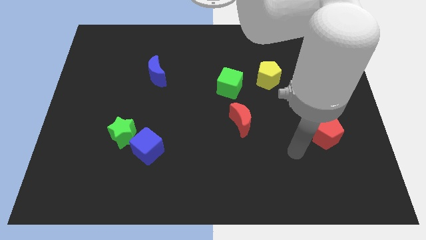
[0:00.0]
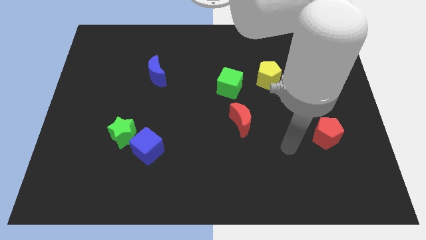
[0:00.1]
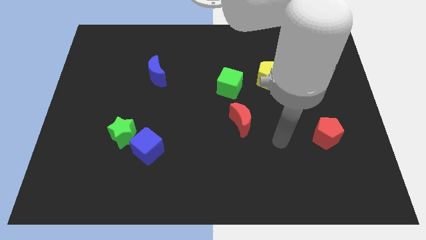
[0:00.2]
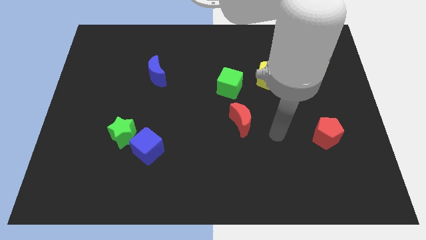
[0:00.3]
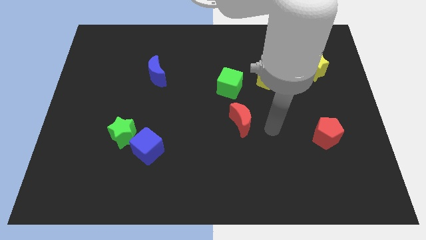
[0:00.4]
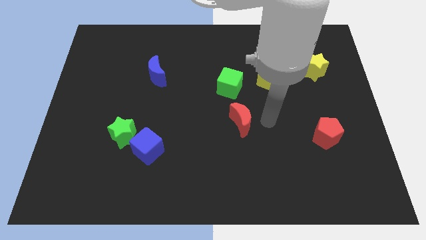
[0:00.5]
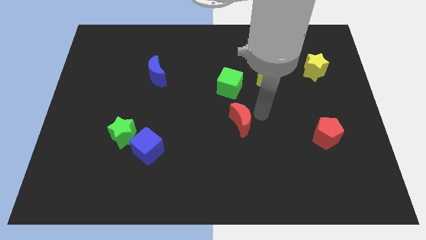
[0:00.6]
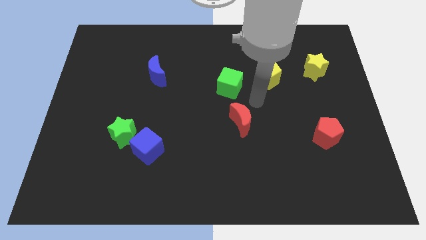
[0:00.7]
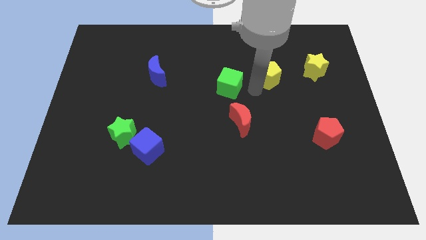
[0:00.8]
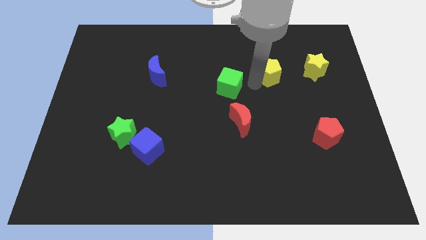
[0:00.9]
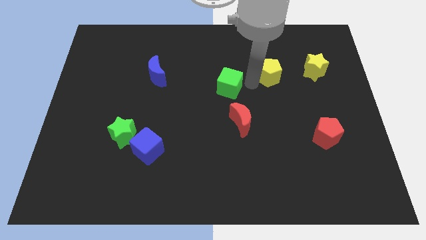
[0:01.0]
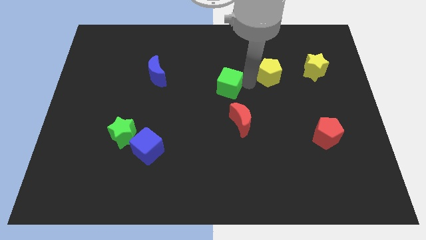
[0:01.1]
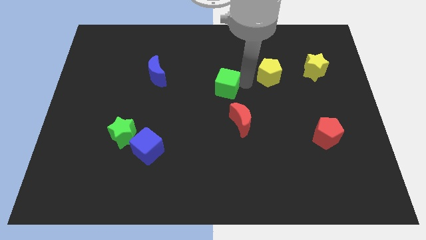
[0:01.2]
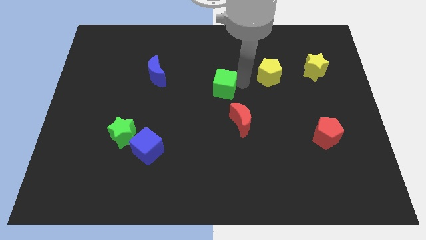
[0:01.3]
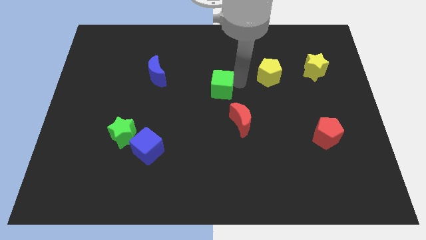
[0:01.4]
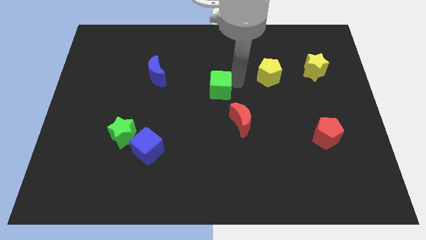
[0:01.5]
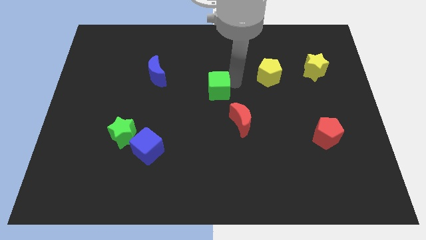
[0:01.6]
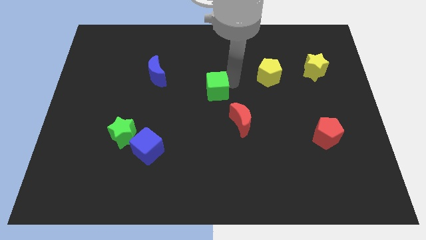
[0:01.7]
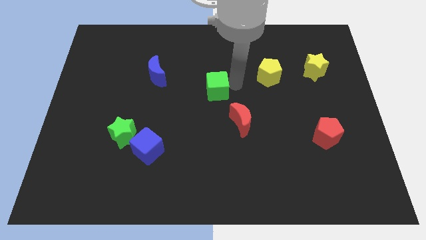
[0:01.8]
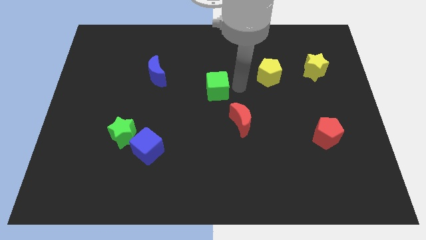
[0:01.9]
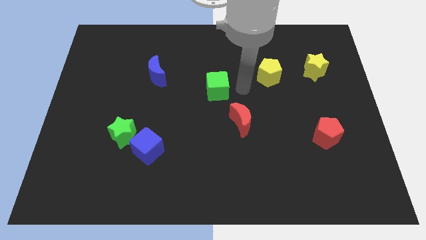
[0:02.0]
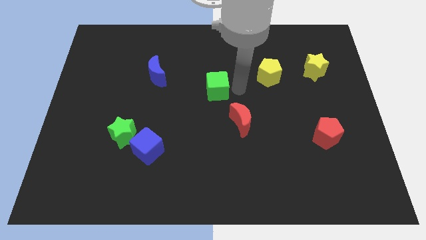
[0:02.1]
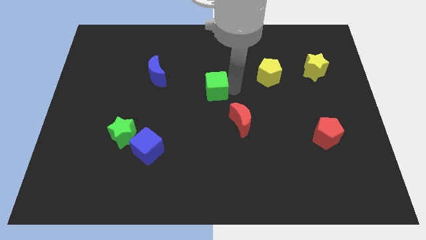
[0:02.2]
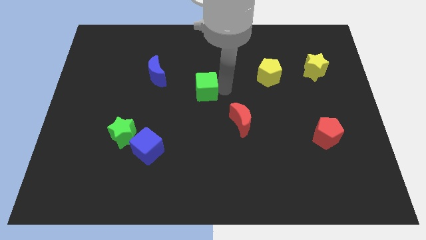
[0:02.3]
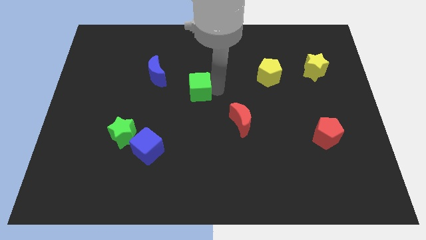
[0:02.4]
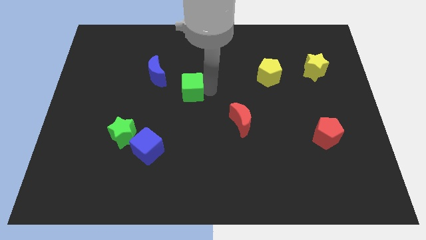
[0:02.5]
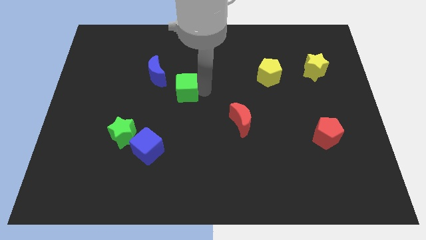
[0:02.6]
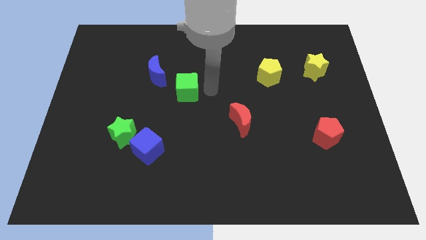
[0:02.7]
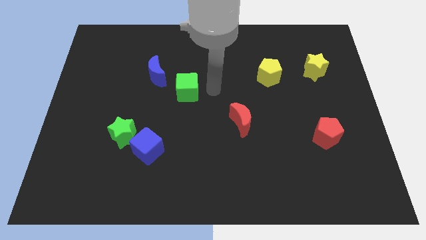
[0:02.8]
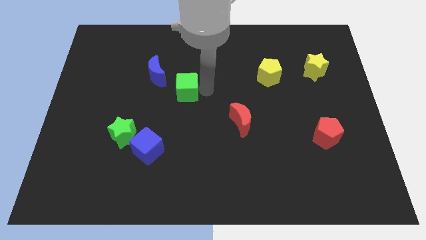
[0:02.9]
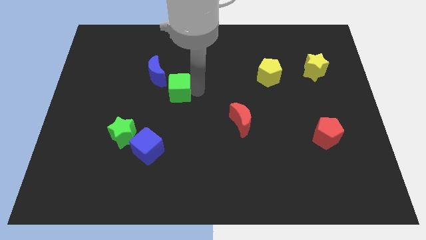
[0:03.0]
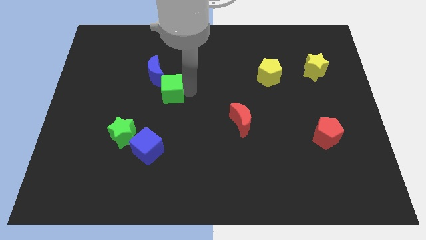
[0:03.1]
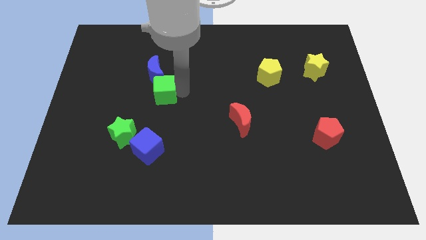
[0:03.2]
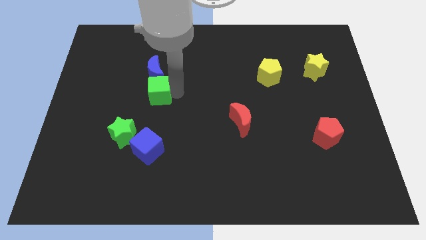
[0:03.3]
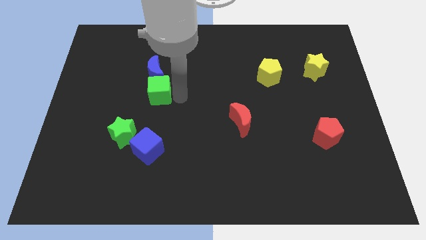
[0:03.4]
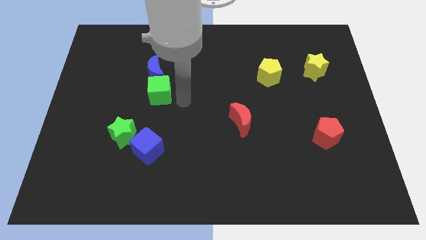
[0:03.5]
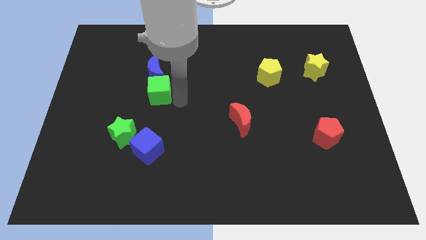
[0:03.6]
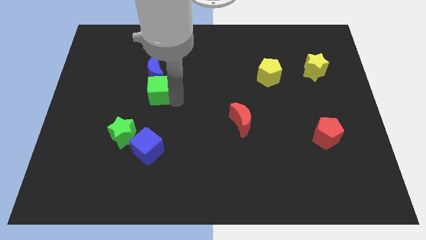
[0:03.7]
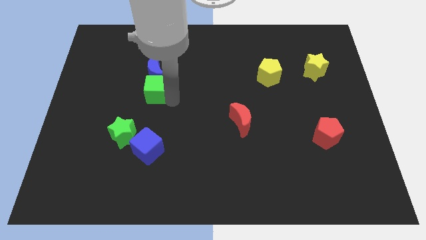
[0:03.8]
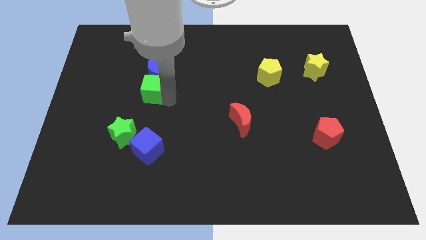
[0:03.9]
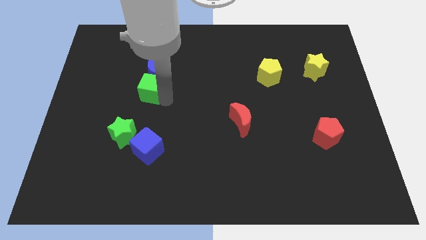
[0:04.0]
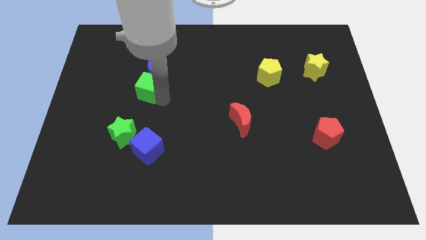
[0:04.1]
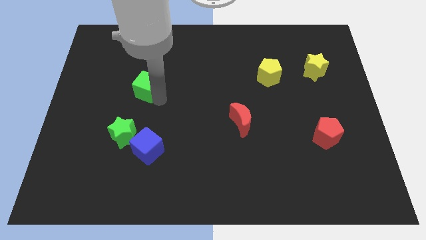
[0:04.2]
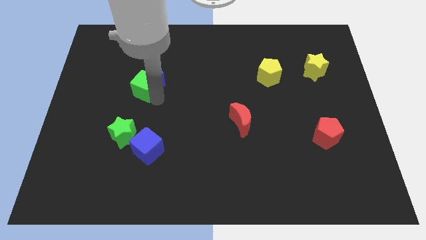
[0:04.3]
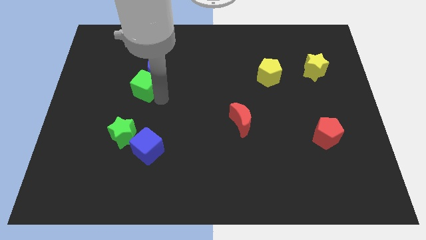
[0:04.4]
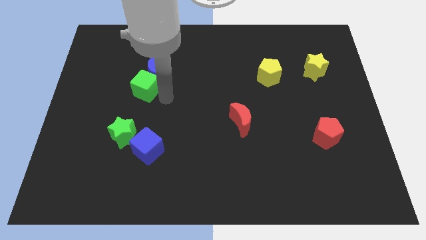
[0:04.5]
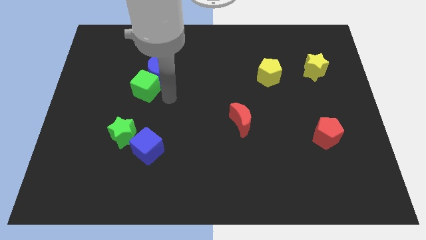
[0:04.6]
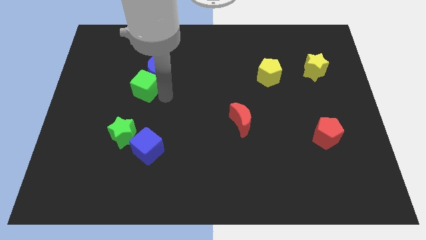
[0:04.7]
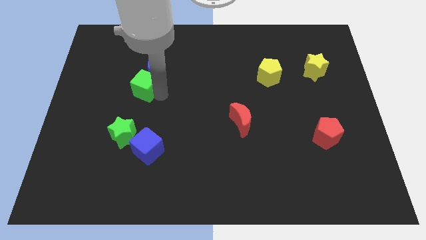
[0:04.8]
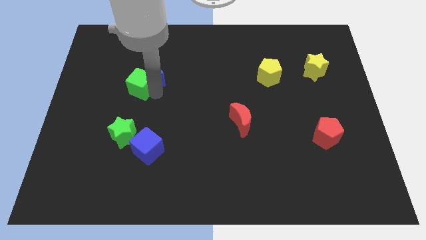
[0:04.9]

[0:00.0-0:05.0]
put the green cube to the left side of the blue moon

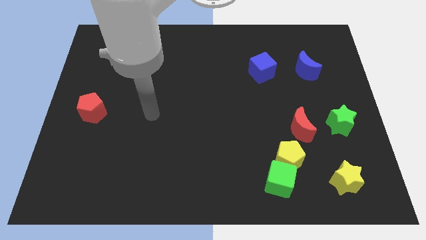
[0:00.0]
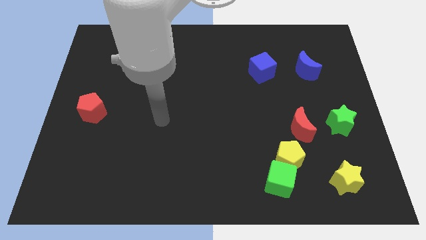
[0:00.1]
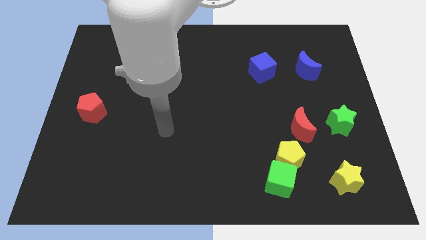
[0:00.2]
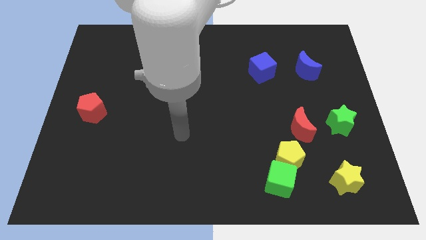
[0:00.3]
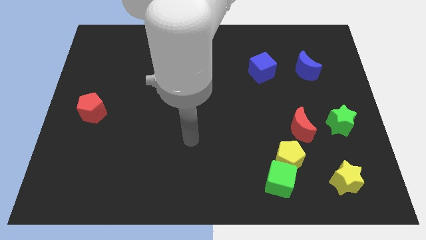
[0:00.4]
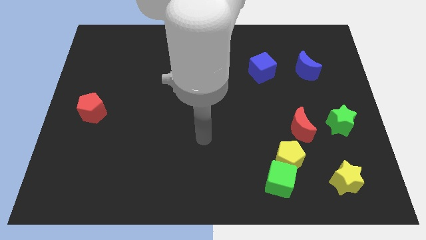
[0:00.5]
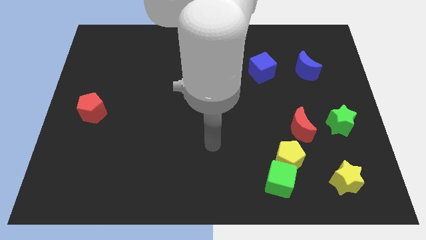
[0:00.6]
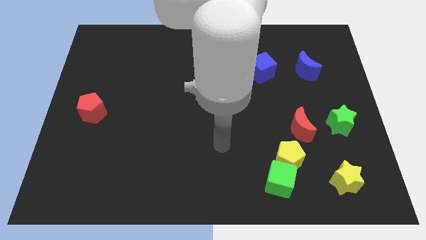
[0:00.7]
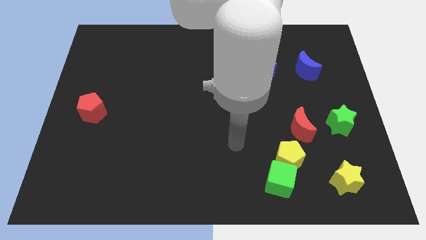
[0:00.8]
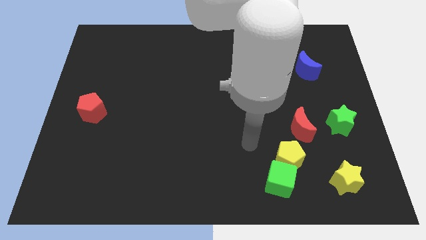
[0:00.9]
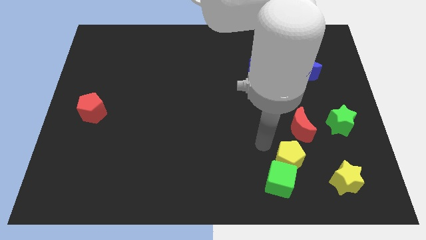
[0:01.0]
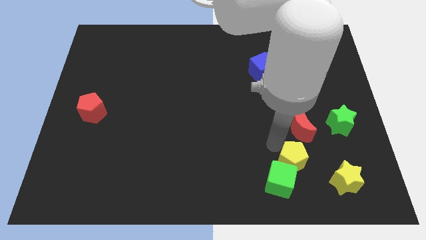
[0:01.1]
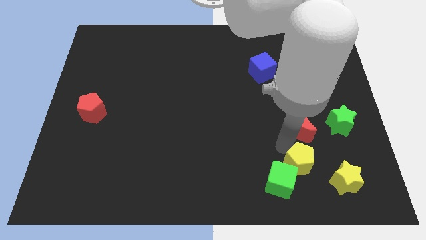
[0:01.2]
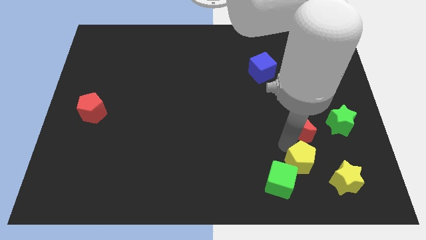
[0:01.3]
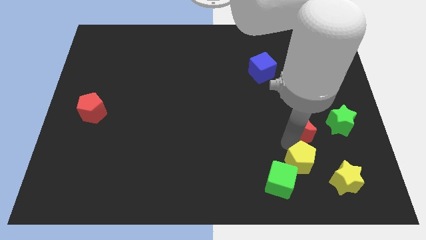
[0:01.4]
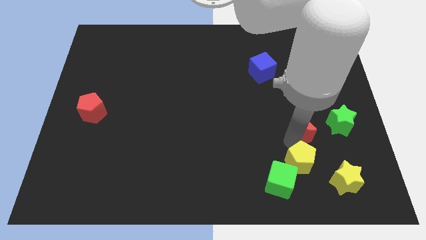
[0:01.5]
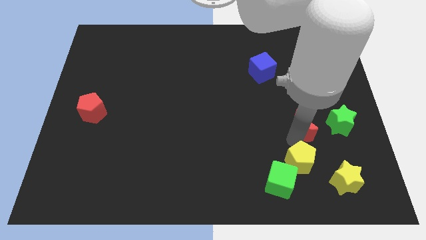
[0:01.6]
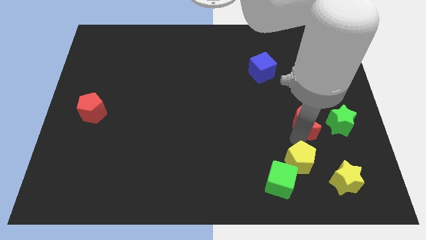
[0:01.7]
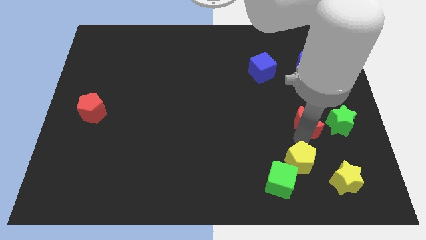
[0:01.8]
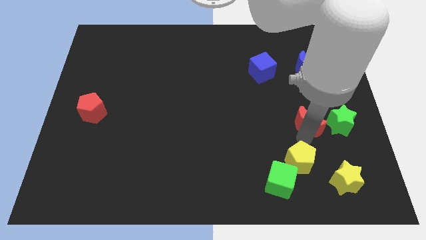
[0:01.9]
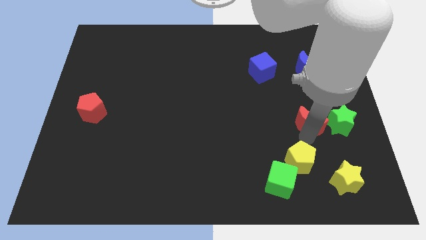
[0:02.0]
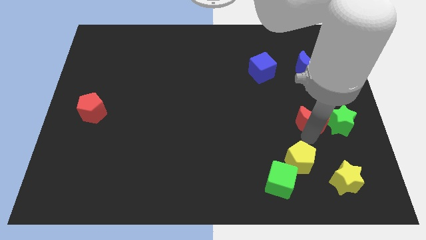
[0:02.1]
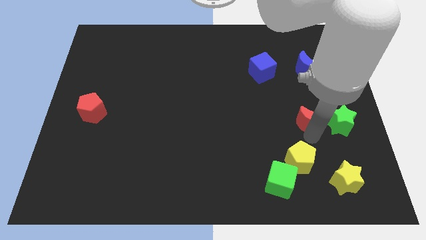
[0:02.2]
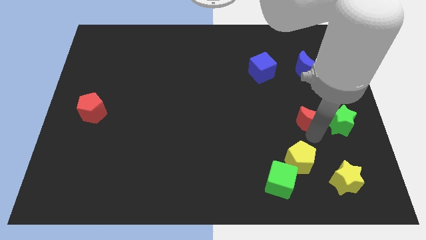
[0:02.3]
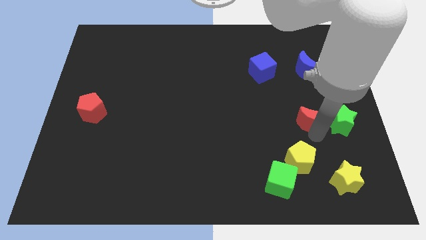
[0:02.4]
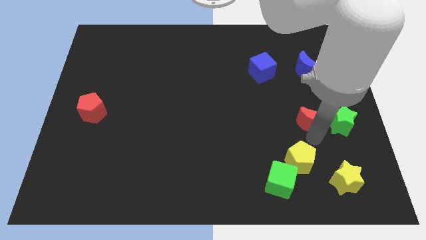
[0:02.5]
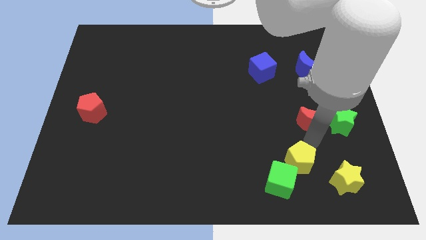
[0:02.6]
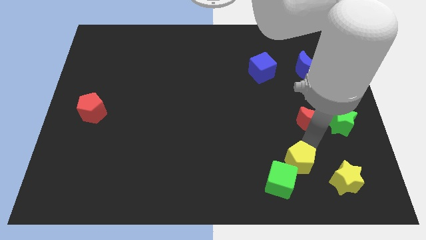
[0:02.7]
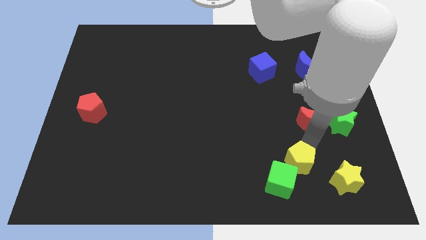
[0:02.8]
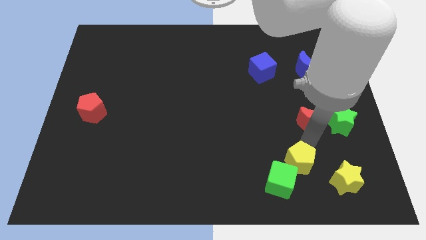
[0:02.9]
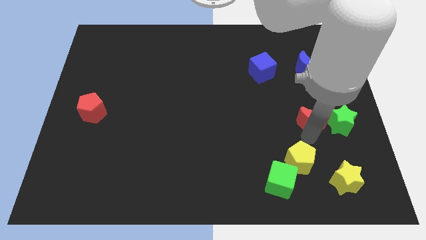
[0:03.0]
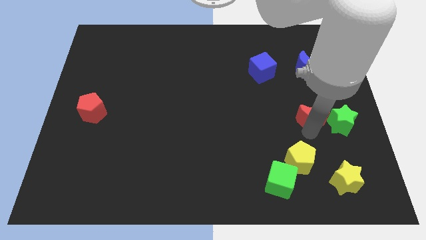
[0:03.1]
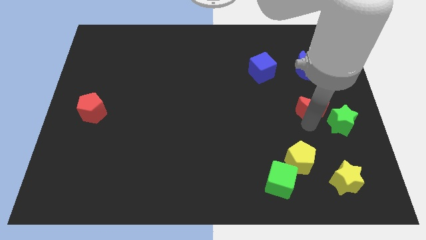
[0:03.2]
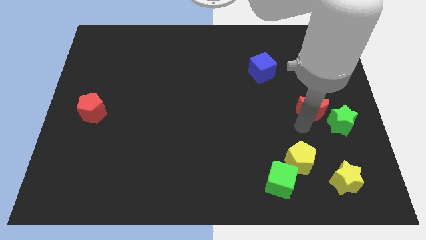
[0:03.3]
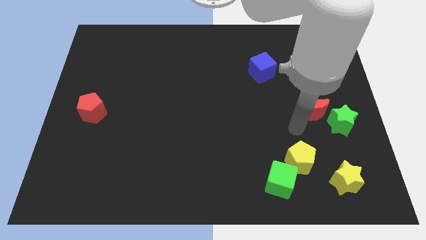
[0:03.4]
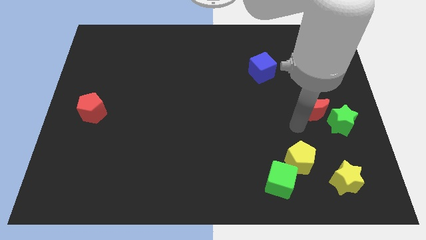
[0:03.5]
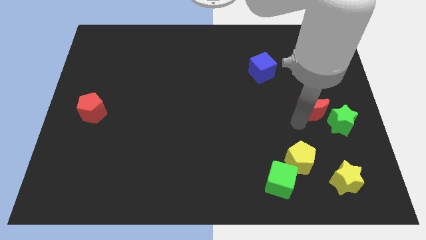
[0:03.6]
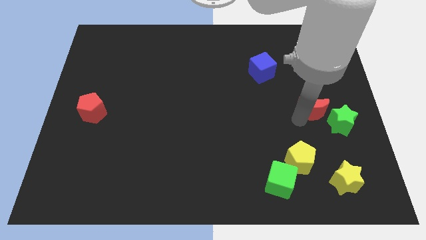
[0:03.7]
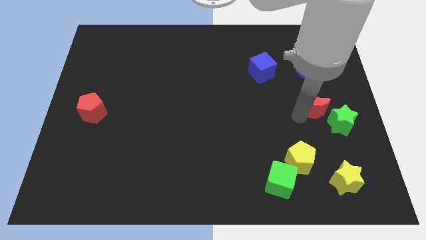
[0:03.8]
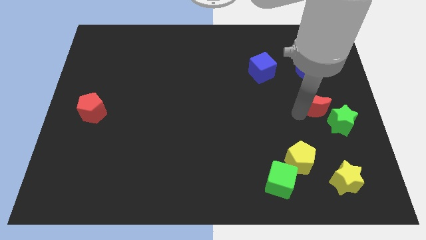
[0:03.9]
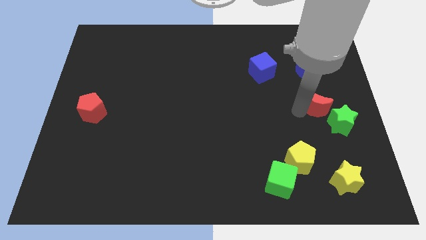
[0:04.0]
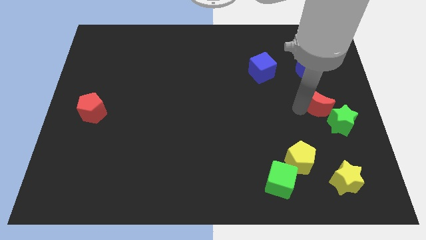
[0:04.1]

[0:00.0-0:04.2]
push the red moon to the top side of the green star
